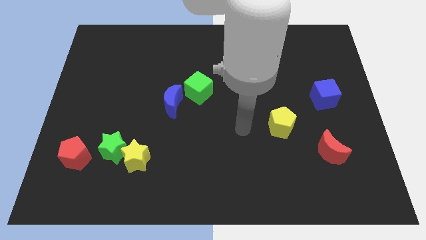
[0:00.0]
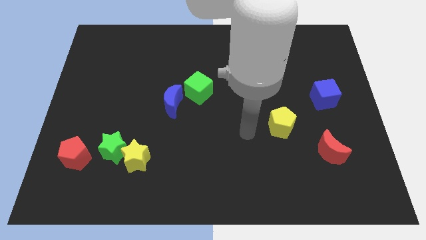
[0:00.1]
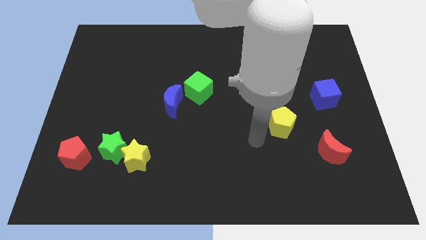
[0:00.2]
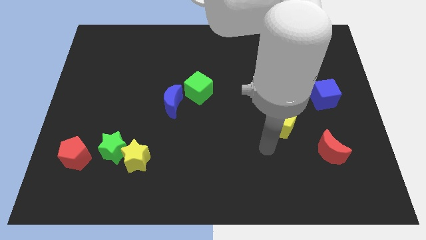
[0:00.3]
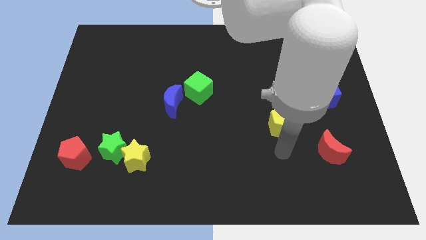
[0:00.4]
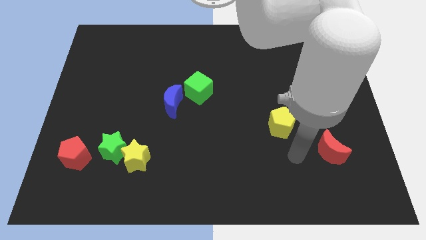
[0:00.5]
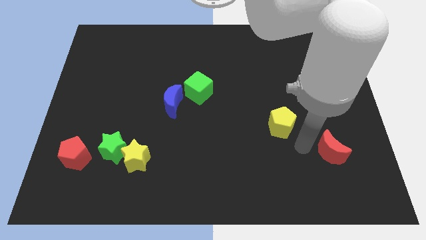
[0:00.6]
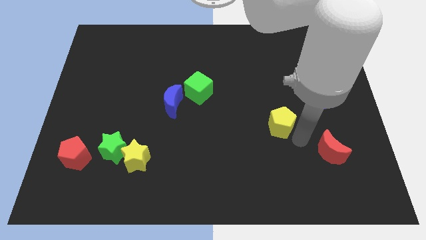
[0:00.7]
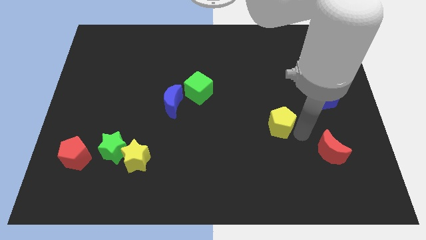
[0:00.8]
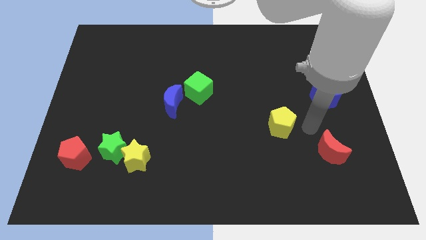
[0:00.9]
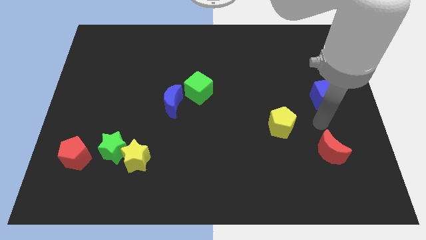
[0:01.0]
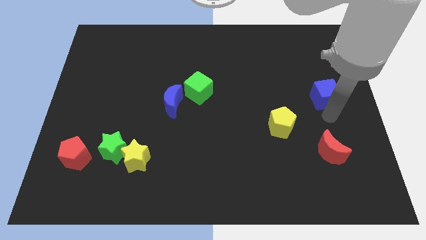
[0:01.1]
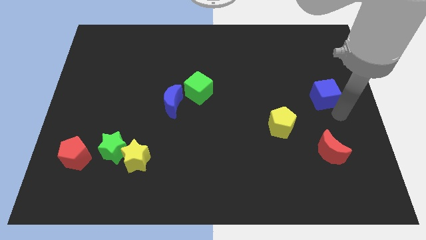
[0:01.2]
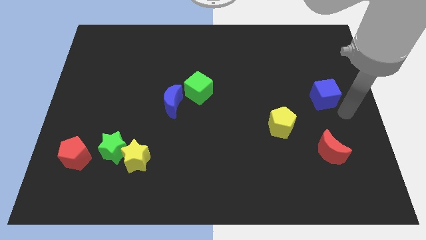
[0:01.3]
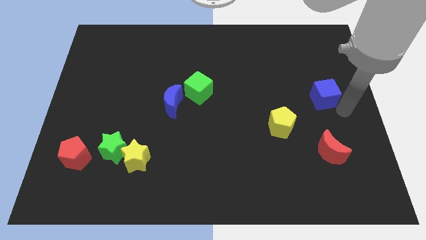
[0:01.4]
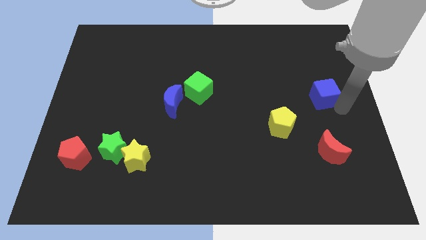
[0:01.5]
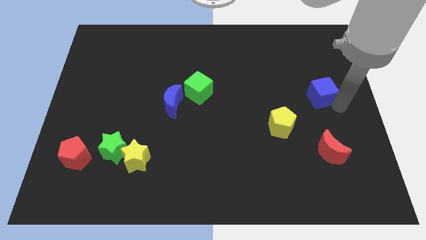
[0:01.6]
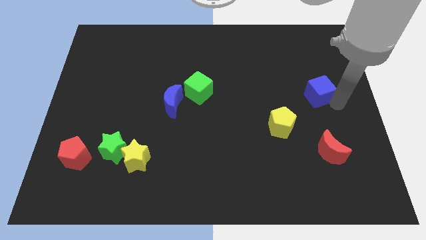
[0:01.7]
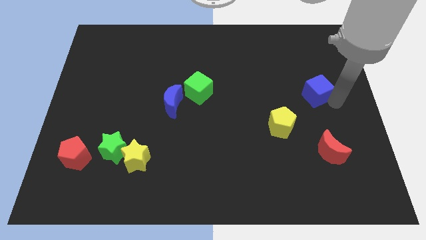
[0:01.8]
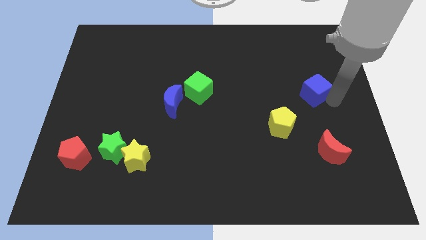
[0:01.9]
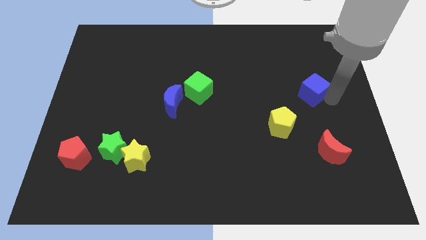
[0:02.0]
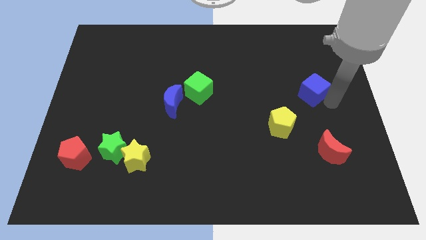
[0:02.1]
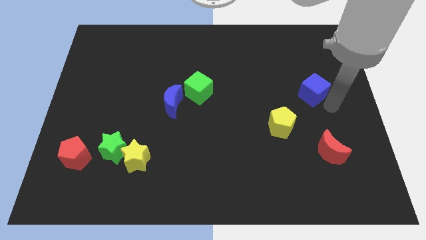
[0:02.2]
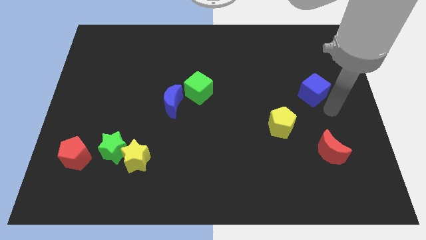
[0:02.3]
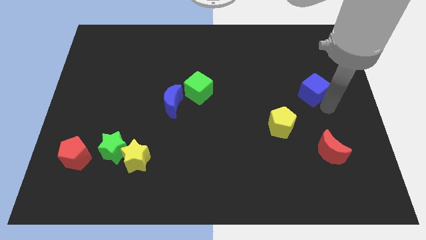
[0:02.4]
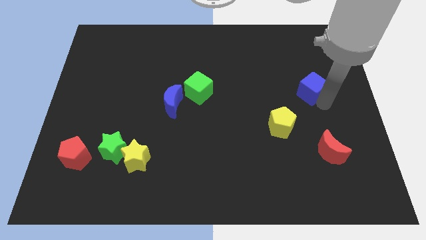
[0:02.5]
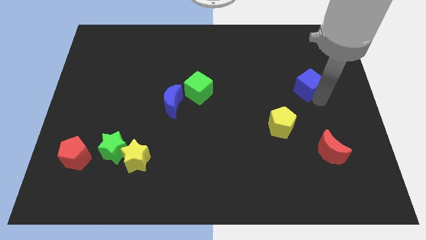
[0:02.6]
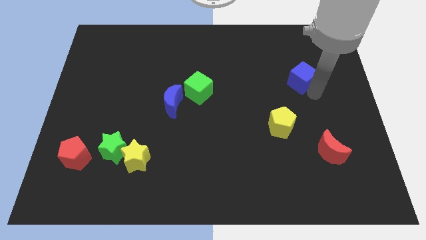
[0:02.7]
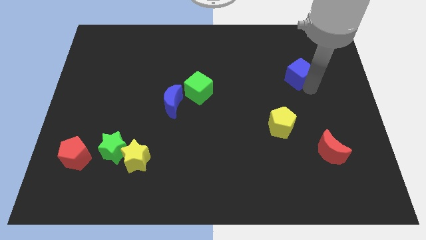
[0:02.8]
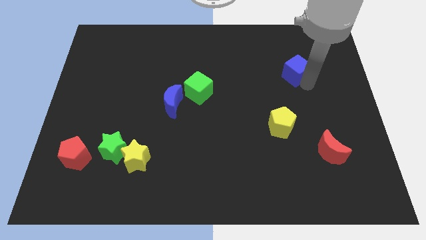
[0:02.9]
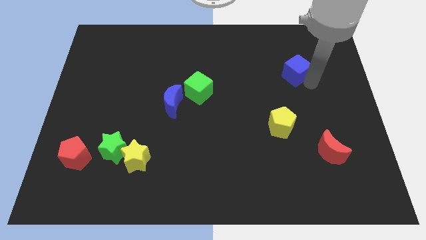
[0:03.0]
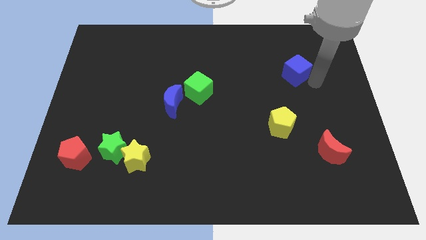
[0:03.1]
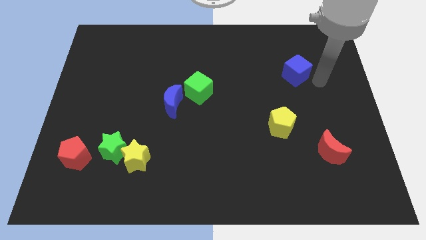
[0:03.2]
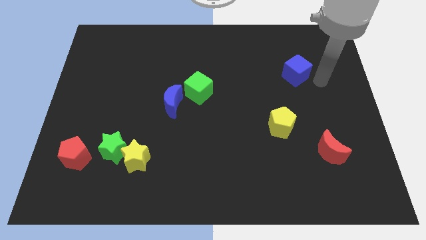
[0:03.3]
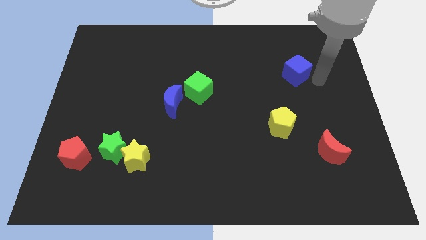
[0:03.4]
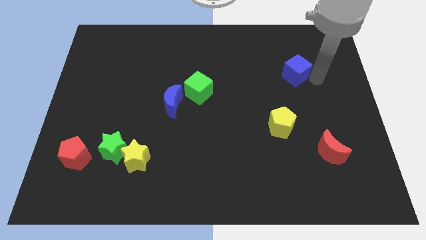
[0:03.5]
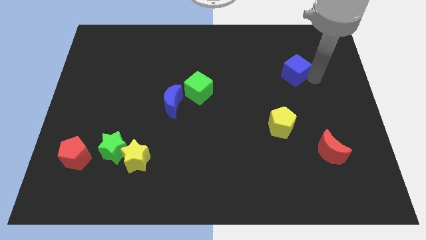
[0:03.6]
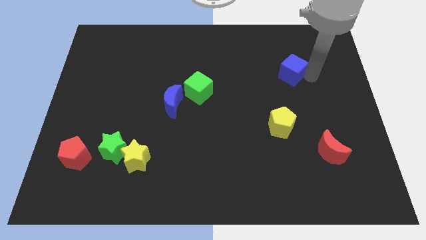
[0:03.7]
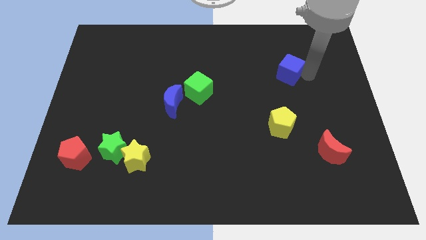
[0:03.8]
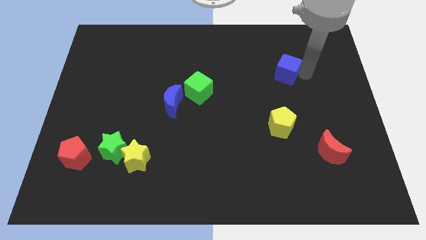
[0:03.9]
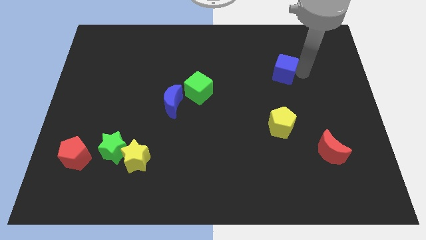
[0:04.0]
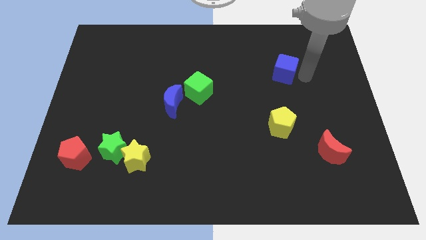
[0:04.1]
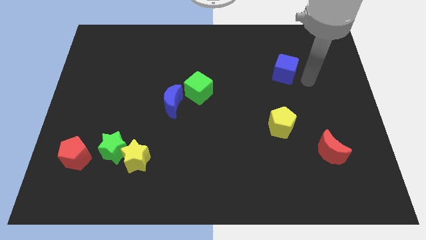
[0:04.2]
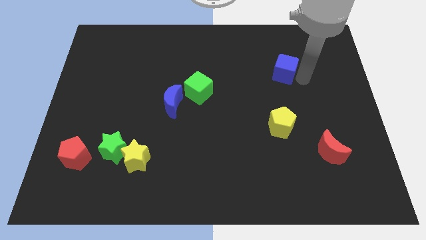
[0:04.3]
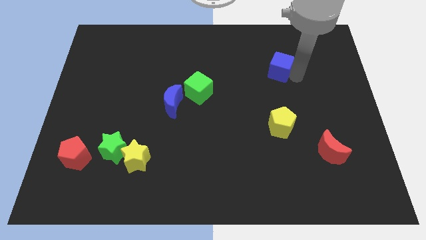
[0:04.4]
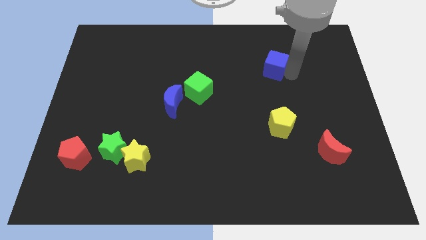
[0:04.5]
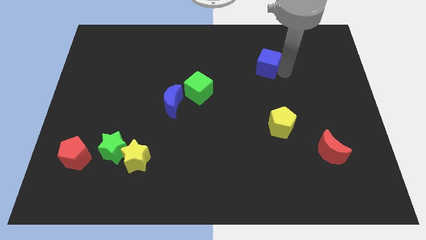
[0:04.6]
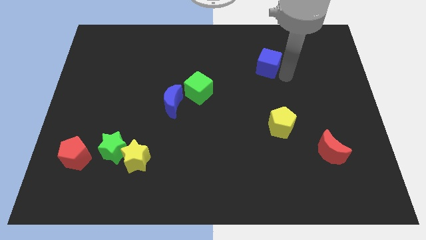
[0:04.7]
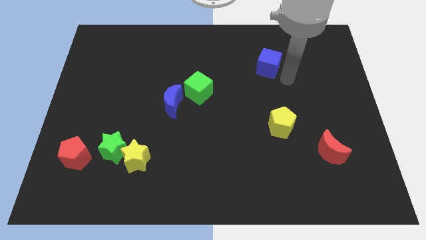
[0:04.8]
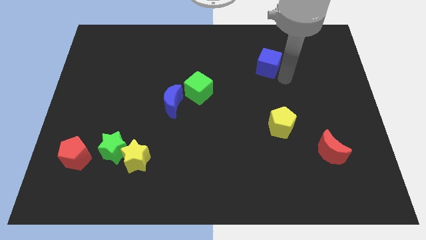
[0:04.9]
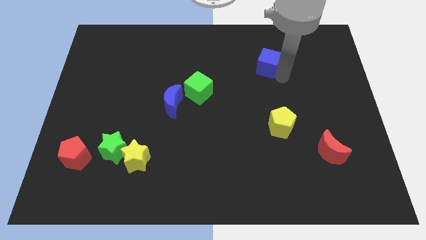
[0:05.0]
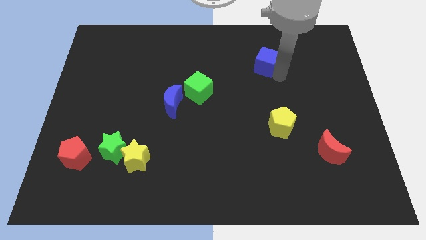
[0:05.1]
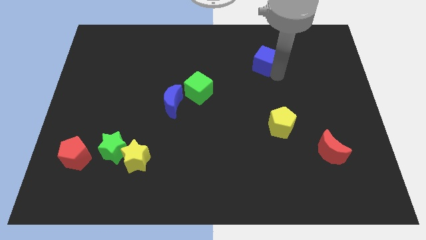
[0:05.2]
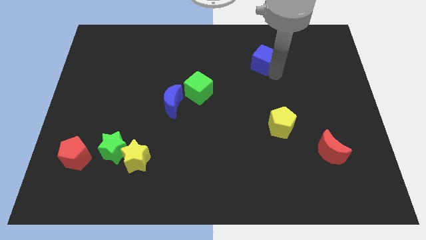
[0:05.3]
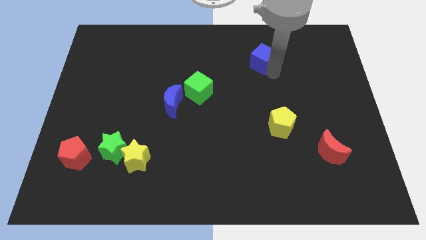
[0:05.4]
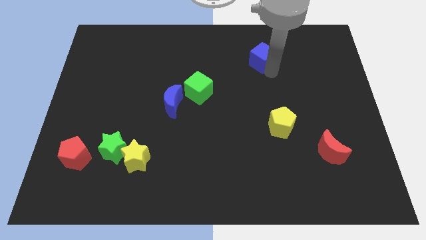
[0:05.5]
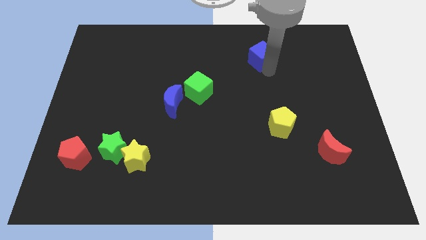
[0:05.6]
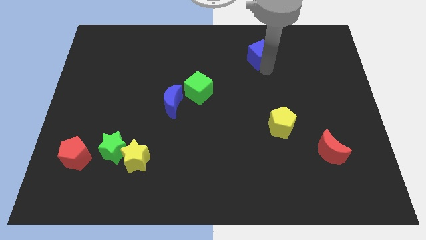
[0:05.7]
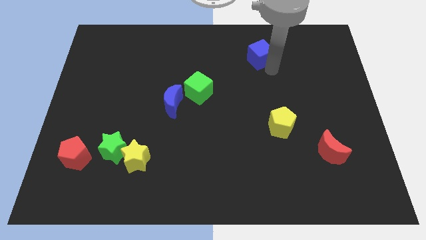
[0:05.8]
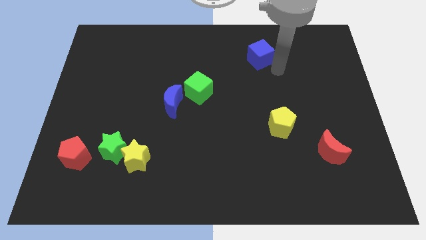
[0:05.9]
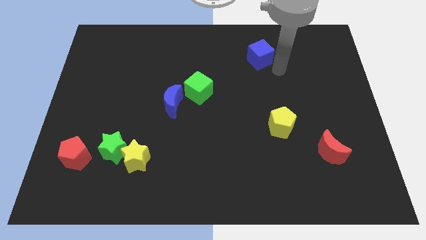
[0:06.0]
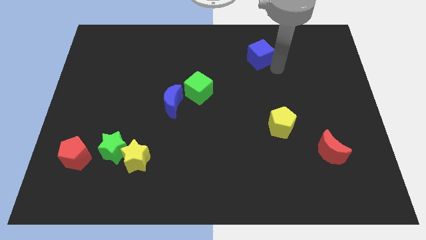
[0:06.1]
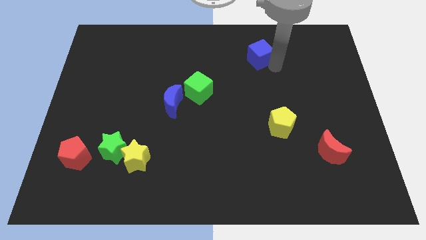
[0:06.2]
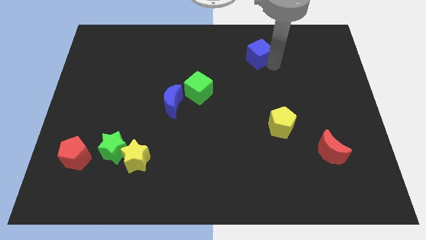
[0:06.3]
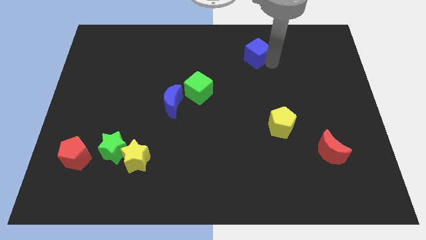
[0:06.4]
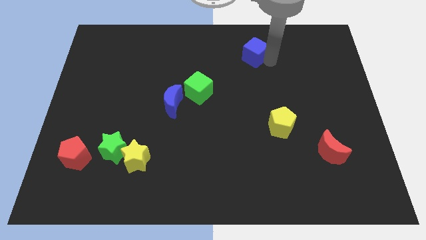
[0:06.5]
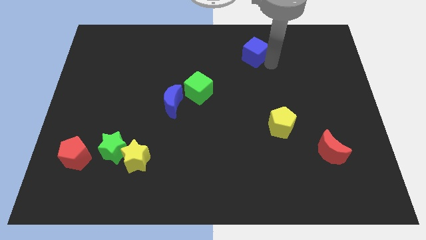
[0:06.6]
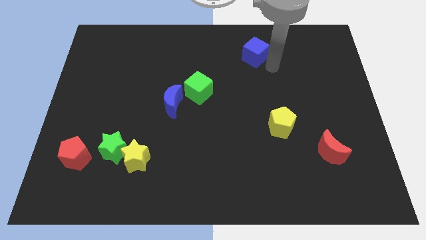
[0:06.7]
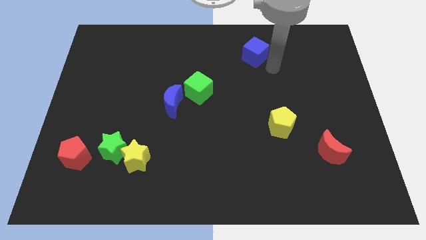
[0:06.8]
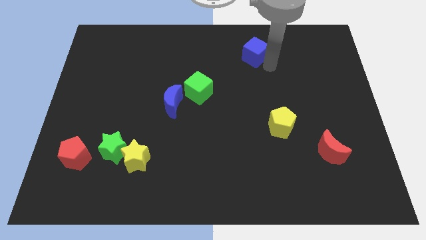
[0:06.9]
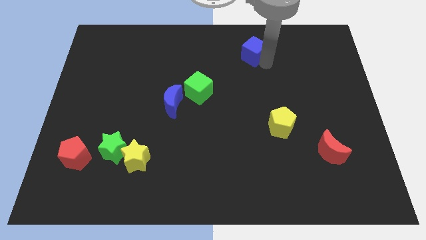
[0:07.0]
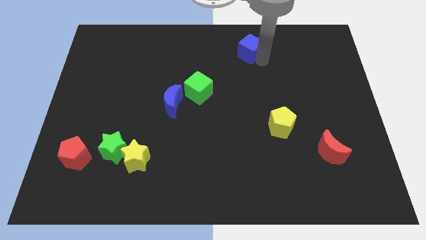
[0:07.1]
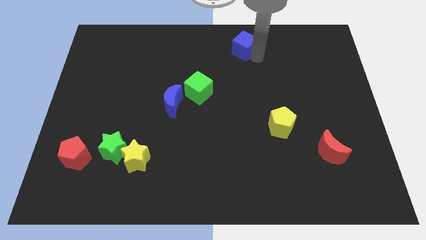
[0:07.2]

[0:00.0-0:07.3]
put the blue cube to the towards your base
